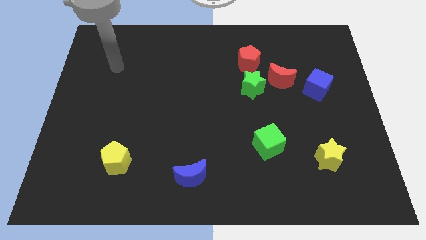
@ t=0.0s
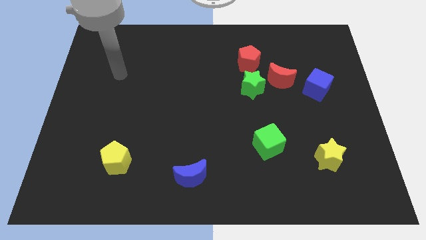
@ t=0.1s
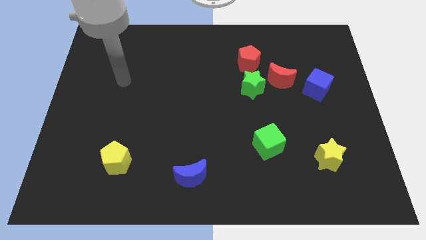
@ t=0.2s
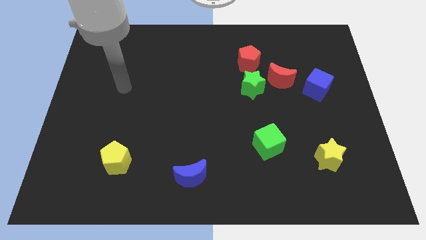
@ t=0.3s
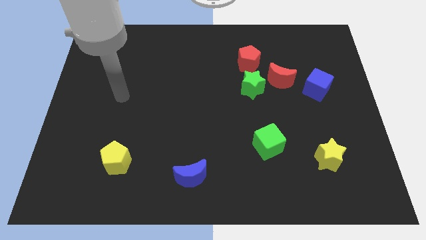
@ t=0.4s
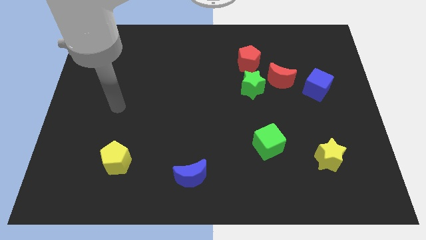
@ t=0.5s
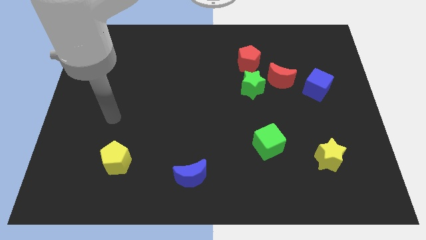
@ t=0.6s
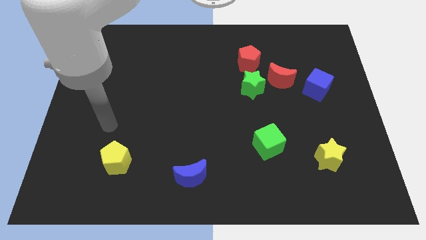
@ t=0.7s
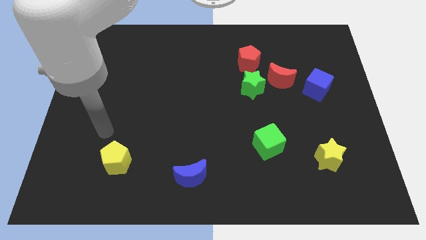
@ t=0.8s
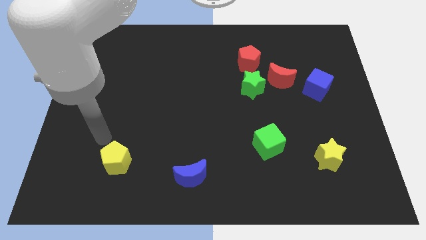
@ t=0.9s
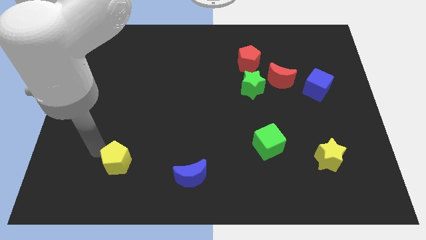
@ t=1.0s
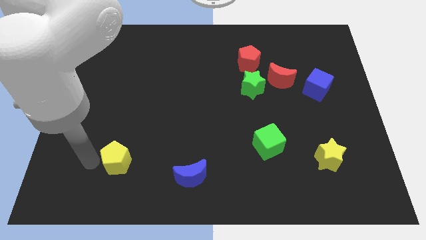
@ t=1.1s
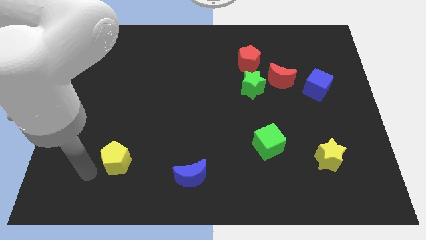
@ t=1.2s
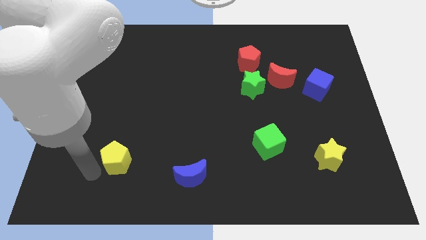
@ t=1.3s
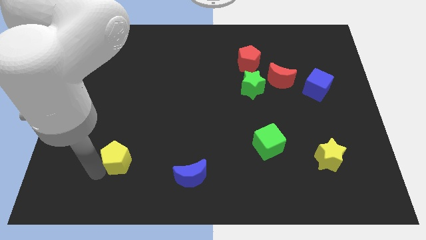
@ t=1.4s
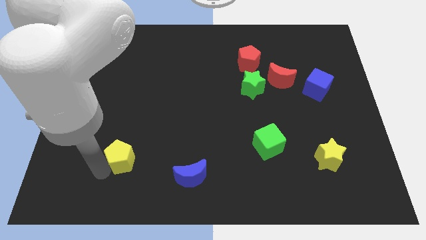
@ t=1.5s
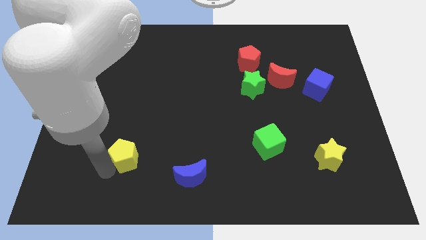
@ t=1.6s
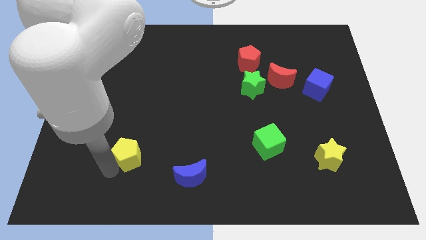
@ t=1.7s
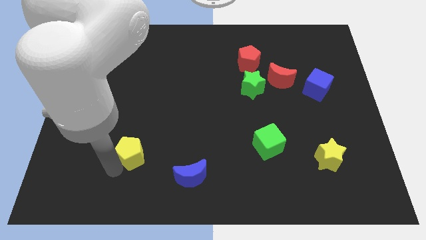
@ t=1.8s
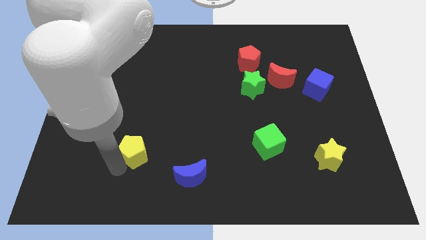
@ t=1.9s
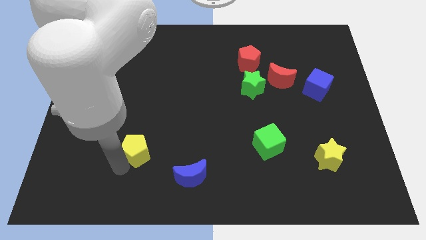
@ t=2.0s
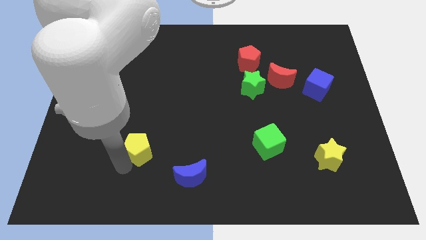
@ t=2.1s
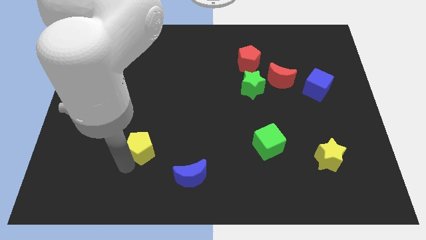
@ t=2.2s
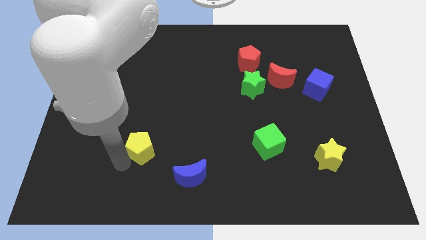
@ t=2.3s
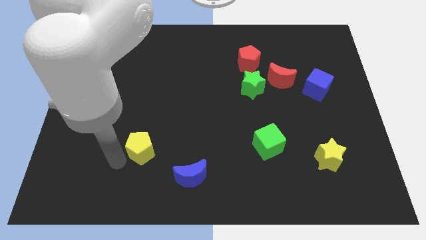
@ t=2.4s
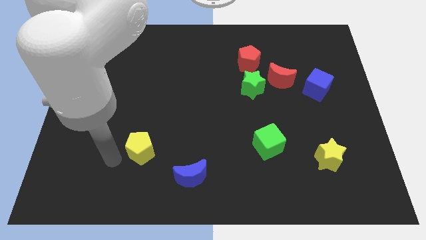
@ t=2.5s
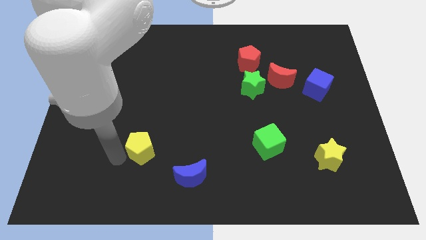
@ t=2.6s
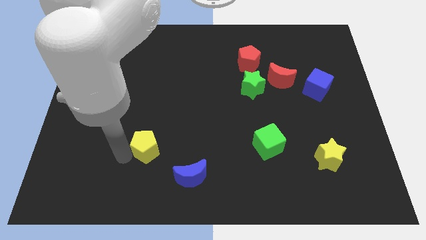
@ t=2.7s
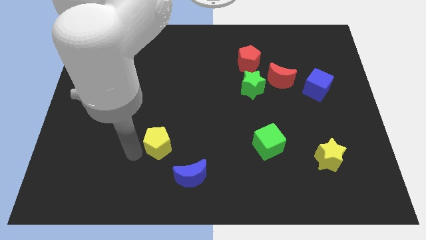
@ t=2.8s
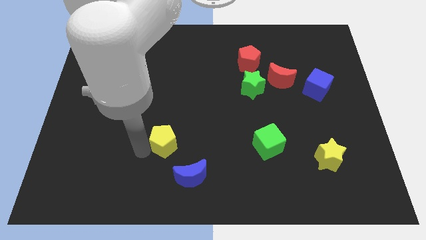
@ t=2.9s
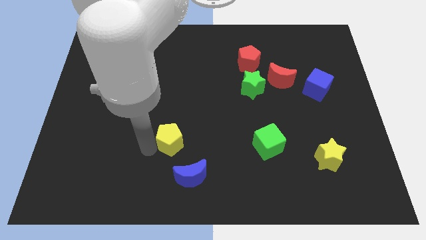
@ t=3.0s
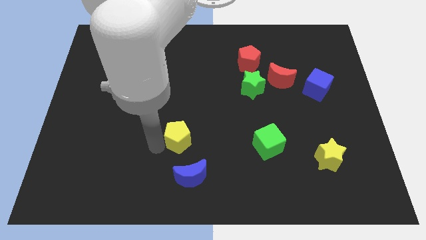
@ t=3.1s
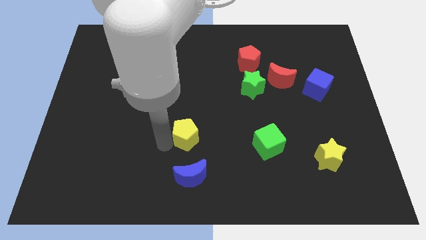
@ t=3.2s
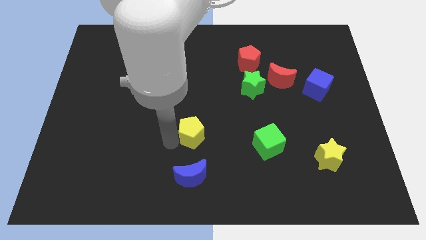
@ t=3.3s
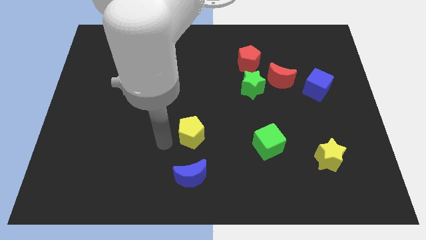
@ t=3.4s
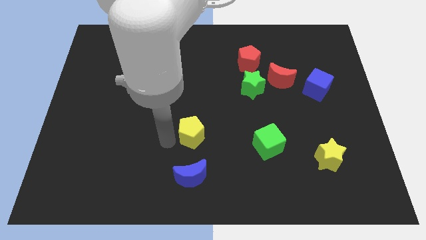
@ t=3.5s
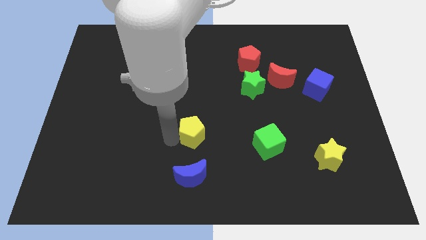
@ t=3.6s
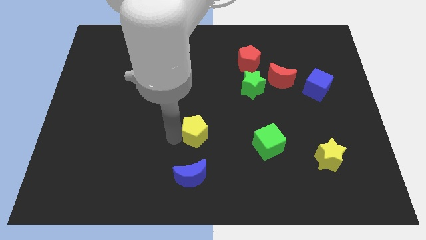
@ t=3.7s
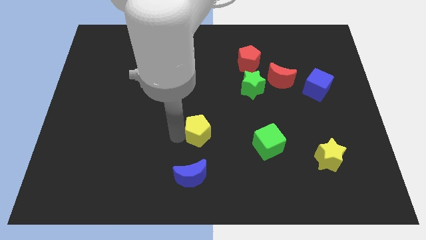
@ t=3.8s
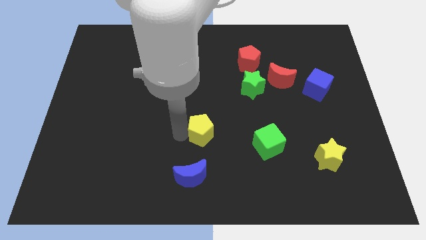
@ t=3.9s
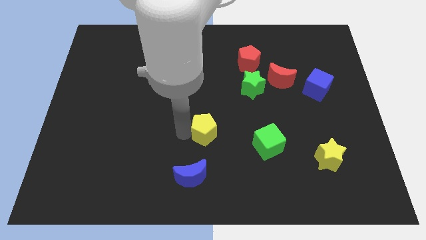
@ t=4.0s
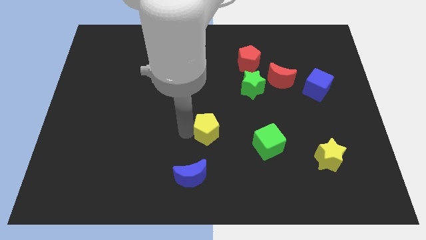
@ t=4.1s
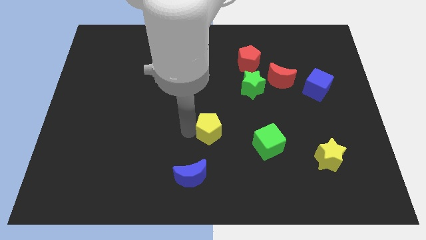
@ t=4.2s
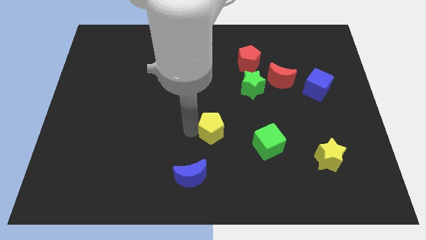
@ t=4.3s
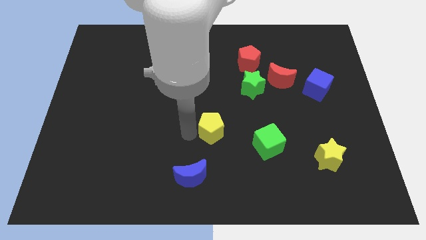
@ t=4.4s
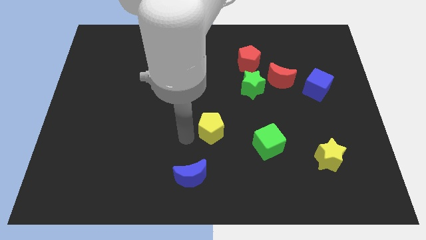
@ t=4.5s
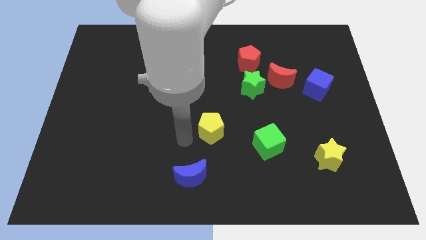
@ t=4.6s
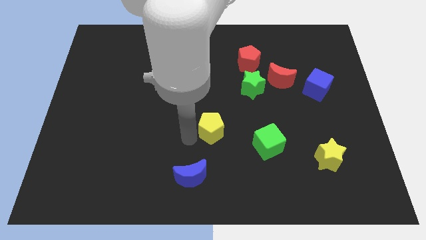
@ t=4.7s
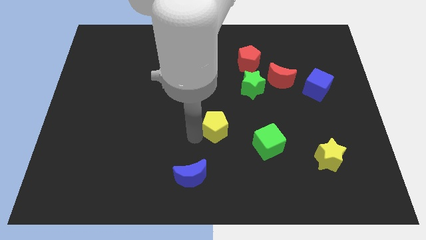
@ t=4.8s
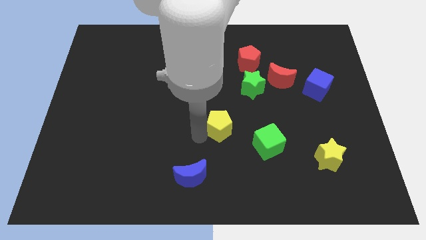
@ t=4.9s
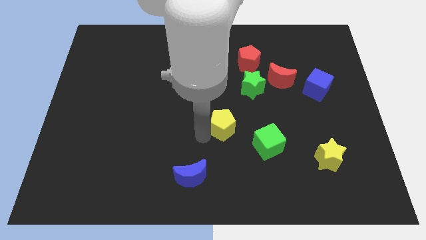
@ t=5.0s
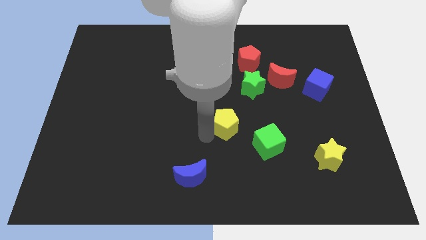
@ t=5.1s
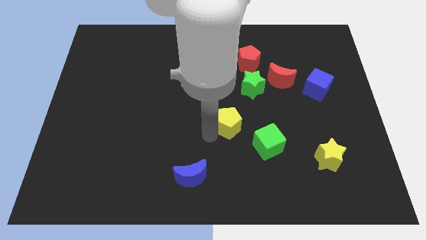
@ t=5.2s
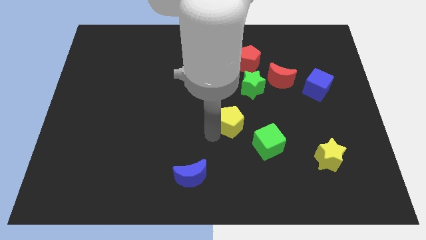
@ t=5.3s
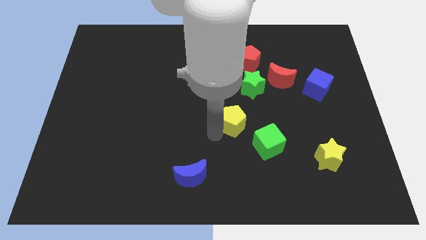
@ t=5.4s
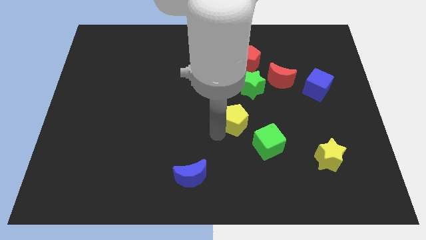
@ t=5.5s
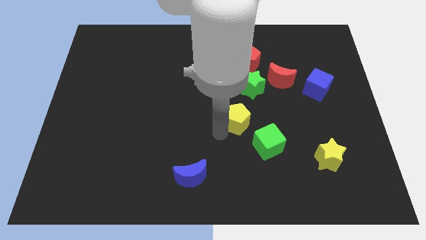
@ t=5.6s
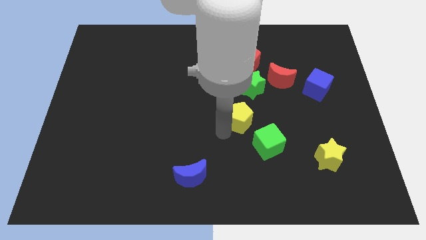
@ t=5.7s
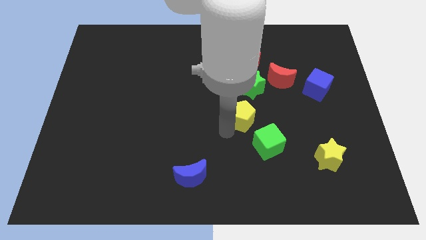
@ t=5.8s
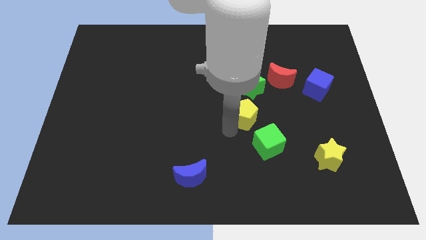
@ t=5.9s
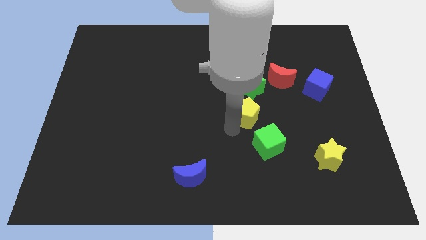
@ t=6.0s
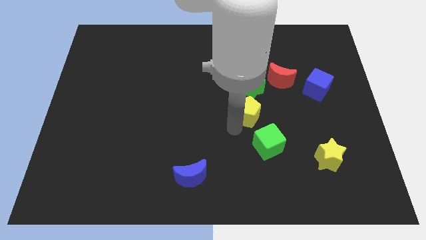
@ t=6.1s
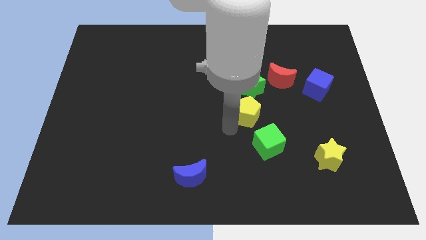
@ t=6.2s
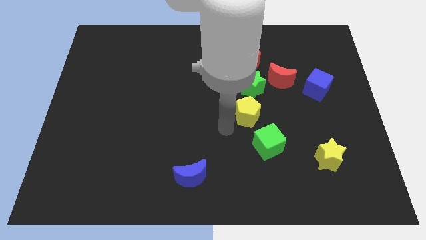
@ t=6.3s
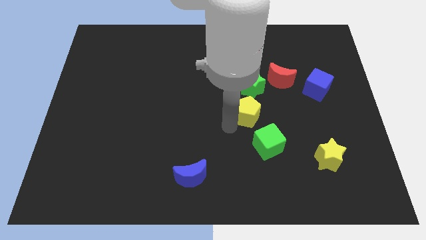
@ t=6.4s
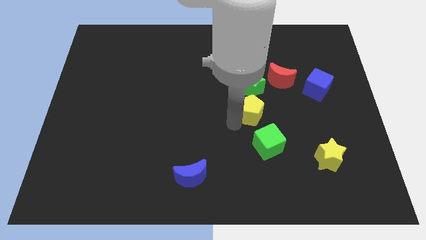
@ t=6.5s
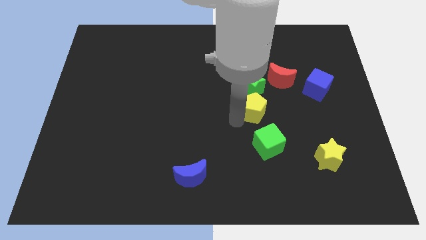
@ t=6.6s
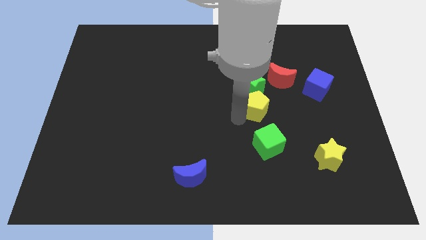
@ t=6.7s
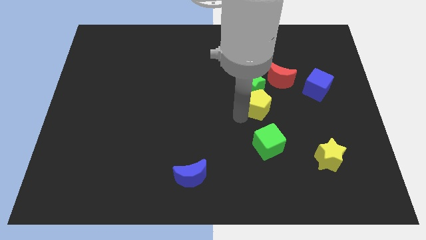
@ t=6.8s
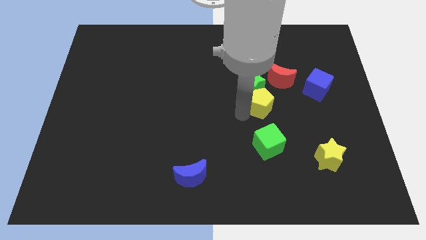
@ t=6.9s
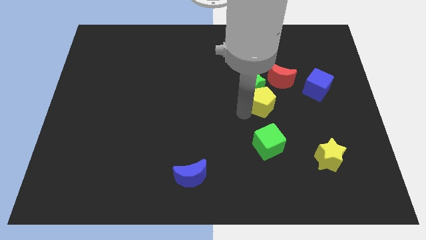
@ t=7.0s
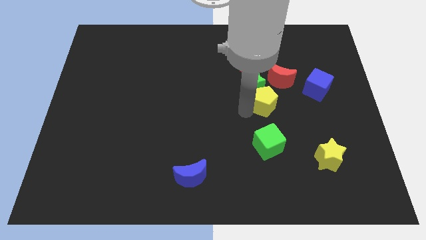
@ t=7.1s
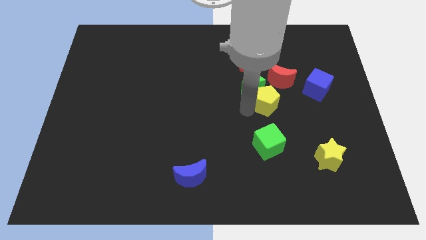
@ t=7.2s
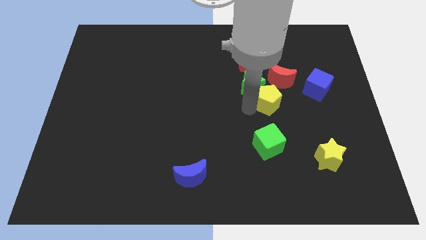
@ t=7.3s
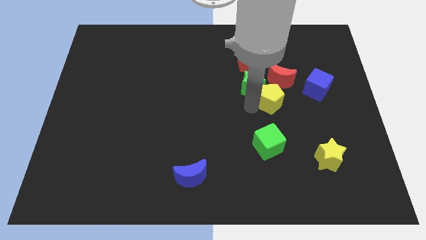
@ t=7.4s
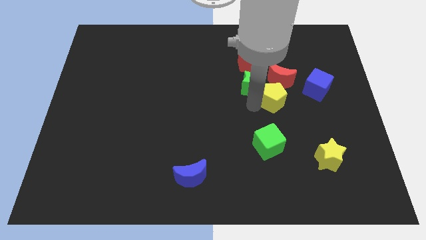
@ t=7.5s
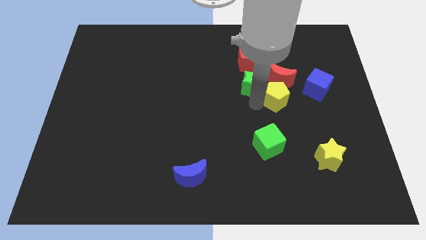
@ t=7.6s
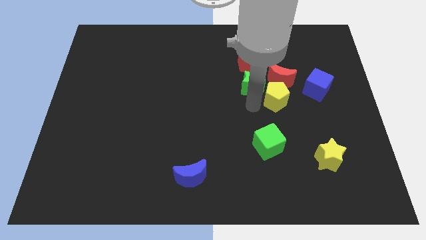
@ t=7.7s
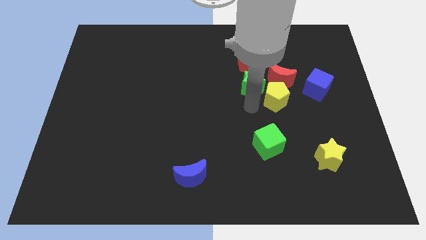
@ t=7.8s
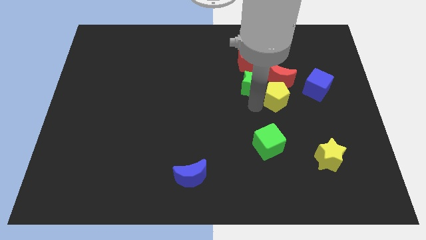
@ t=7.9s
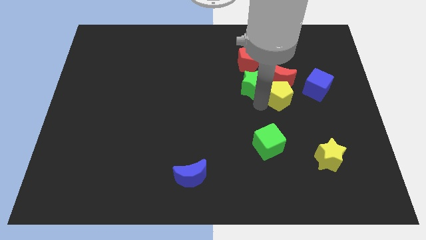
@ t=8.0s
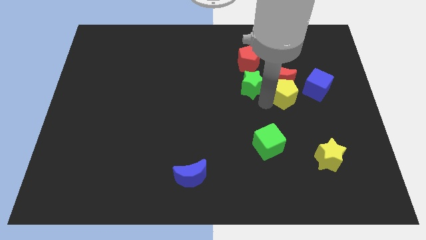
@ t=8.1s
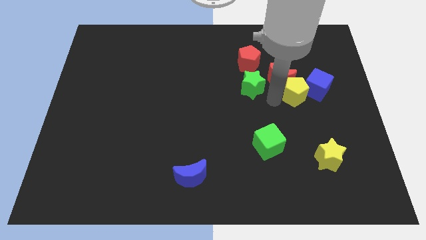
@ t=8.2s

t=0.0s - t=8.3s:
put the yellow pentagon close to the blue cube
